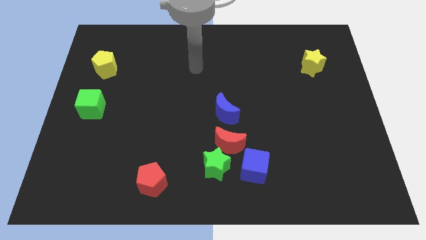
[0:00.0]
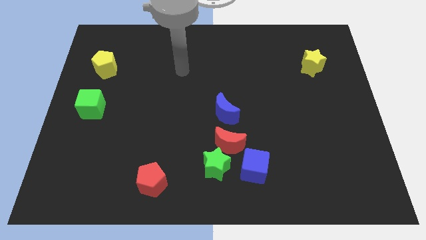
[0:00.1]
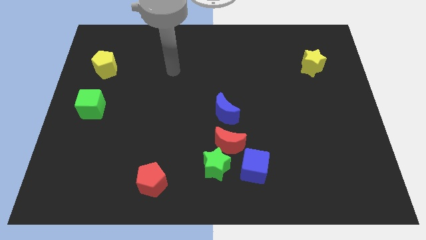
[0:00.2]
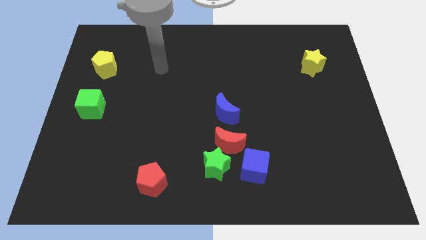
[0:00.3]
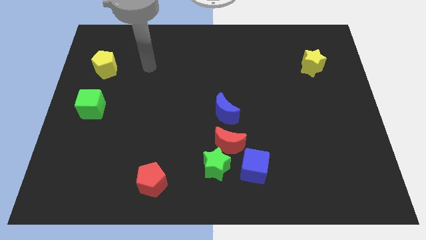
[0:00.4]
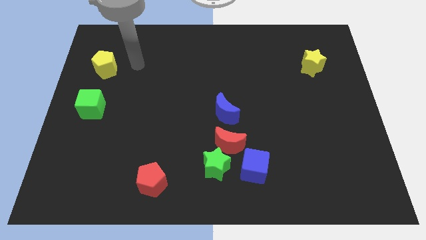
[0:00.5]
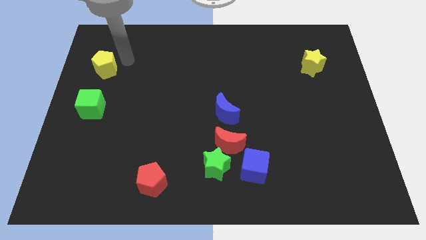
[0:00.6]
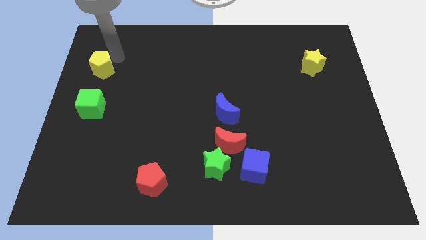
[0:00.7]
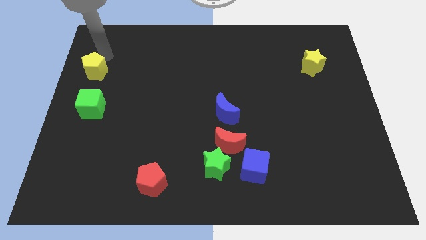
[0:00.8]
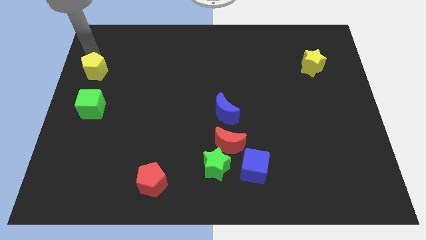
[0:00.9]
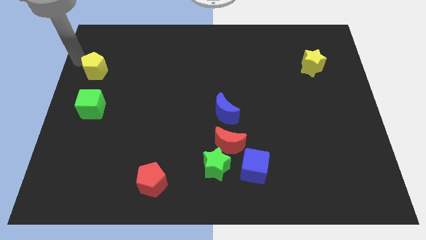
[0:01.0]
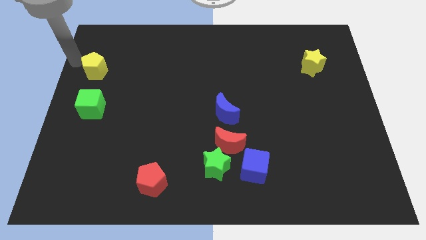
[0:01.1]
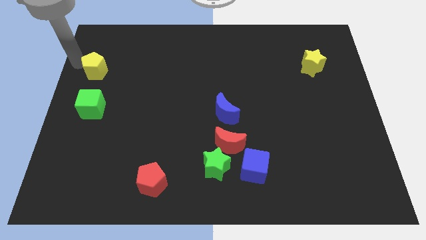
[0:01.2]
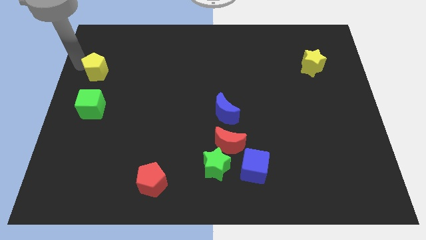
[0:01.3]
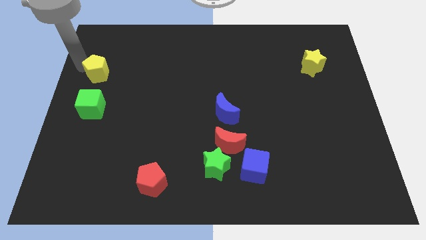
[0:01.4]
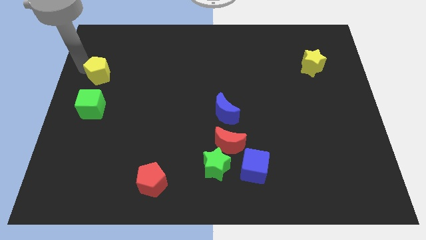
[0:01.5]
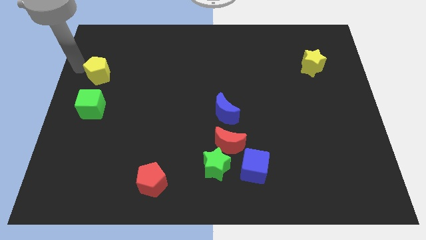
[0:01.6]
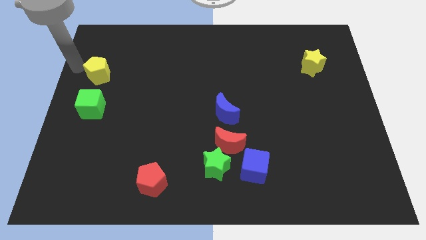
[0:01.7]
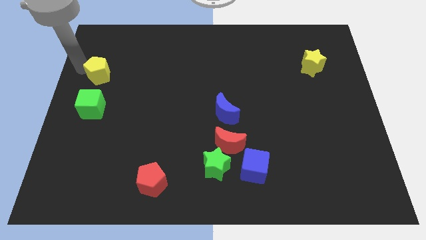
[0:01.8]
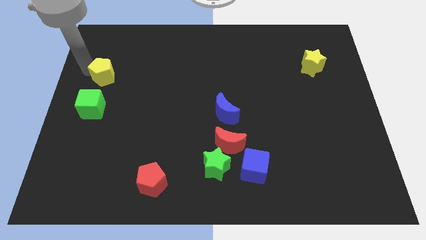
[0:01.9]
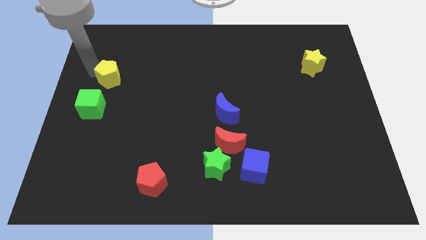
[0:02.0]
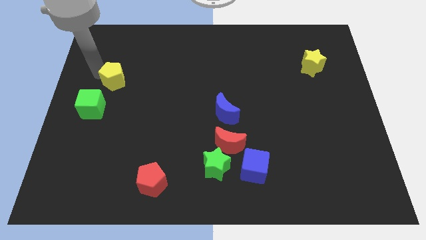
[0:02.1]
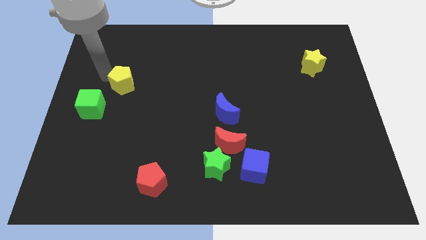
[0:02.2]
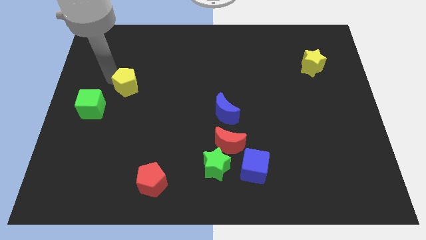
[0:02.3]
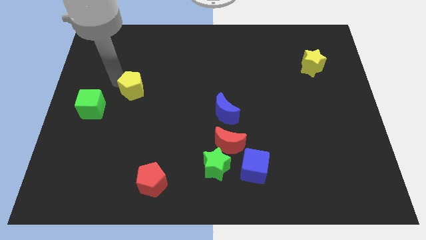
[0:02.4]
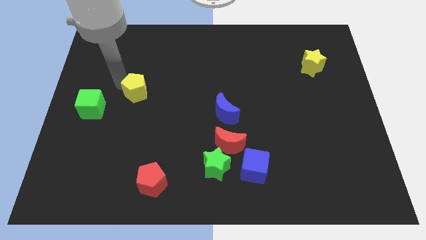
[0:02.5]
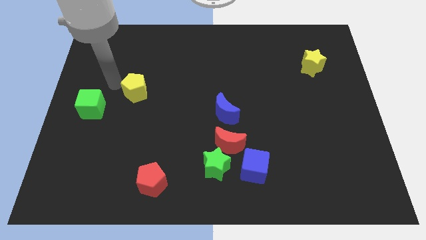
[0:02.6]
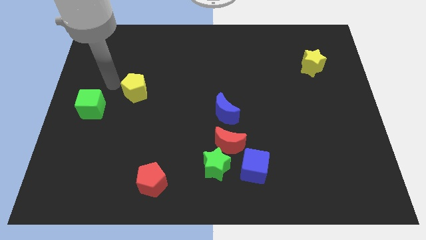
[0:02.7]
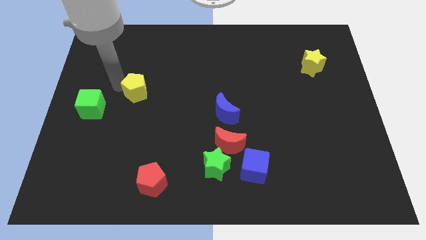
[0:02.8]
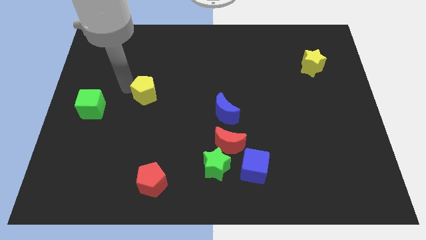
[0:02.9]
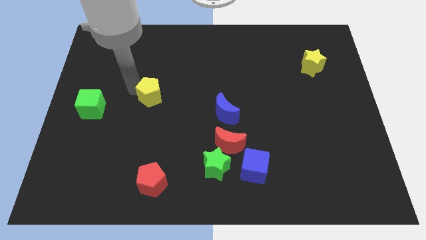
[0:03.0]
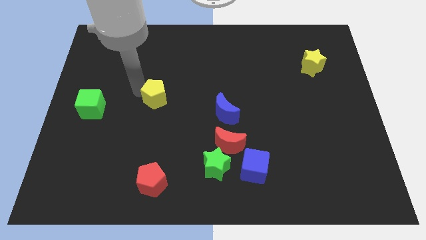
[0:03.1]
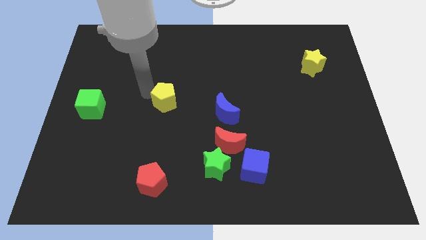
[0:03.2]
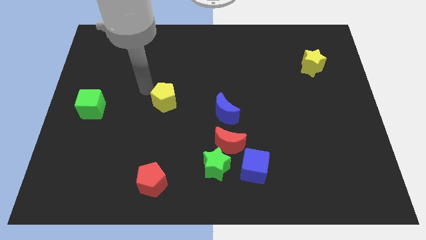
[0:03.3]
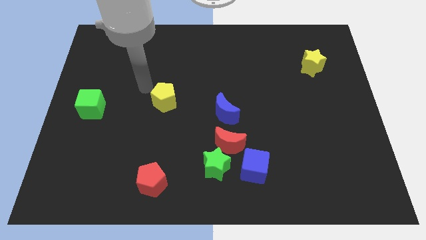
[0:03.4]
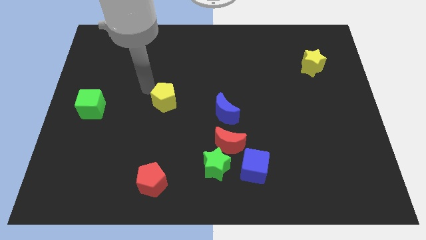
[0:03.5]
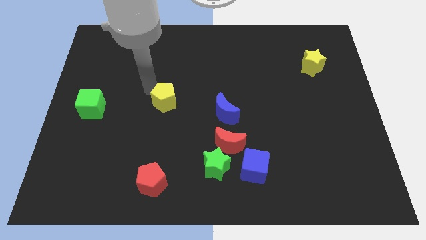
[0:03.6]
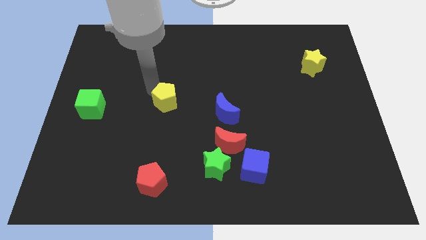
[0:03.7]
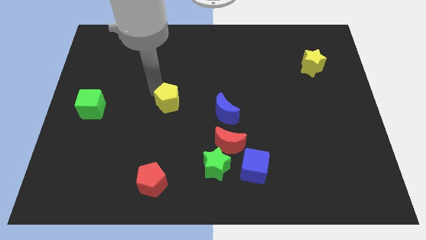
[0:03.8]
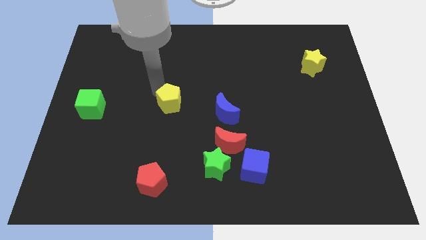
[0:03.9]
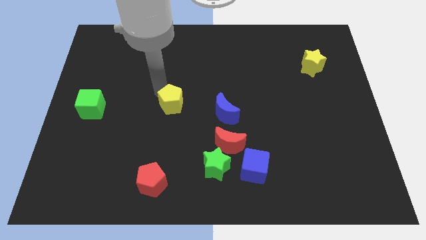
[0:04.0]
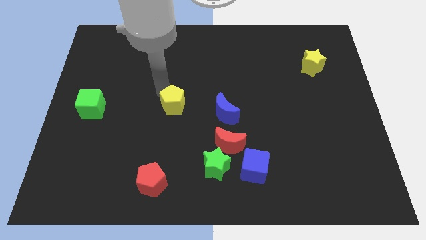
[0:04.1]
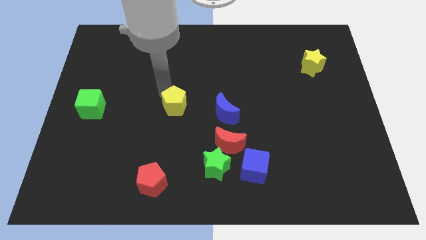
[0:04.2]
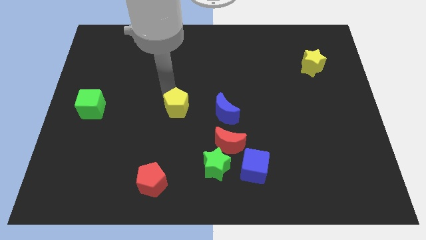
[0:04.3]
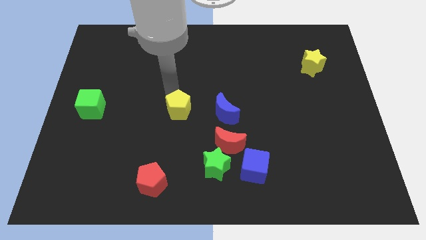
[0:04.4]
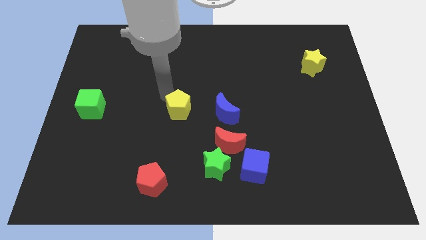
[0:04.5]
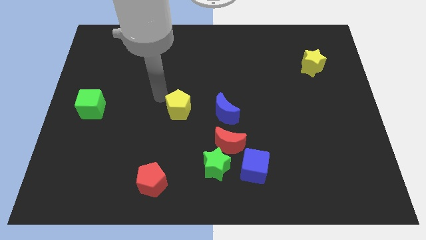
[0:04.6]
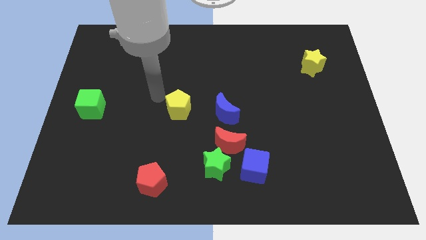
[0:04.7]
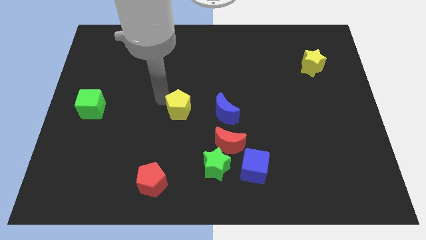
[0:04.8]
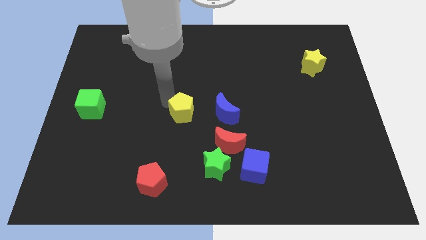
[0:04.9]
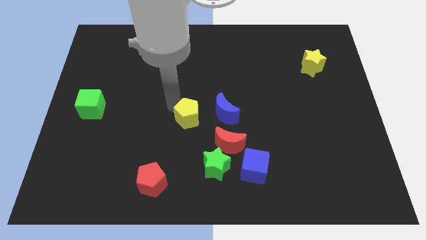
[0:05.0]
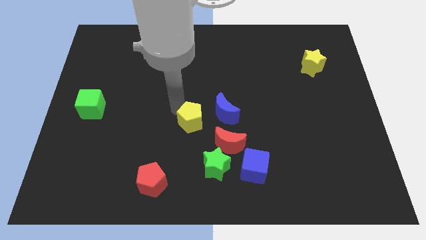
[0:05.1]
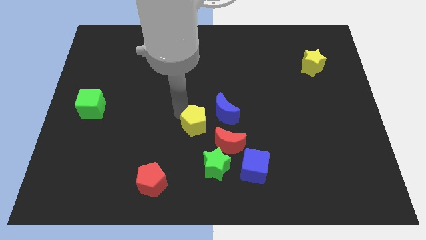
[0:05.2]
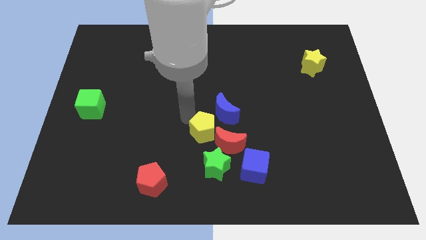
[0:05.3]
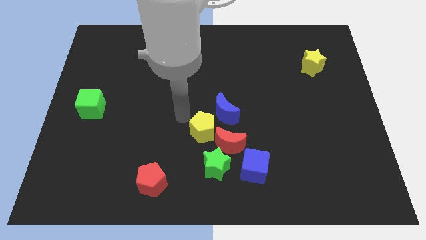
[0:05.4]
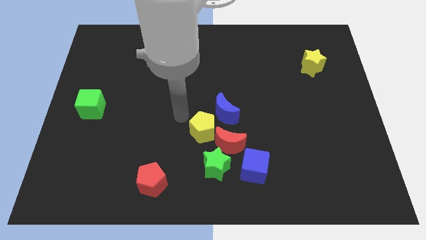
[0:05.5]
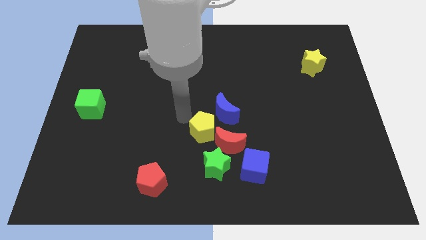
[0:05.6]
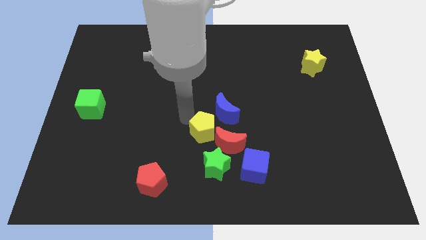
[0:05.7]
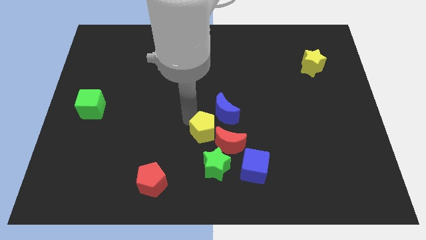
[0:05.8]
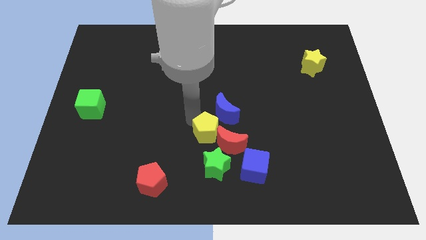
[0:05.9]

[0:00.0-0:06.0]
slide the yellow pentagon to the red moon

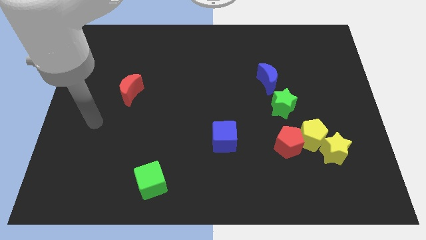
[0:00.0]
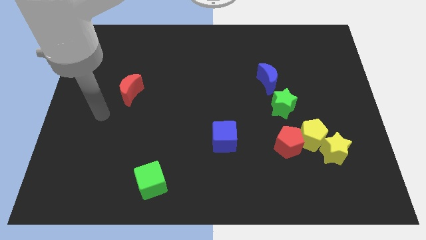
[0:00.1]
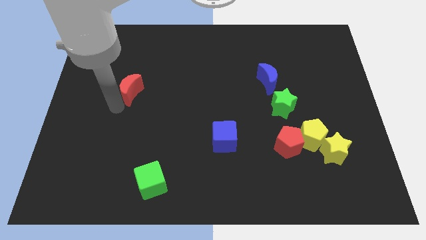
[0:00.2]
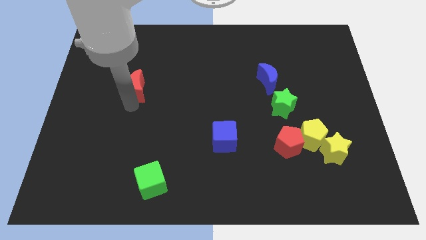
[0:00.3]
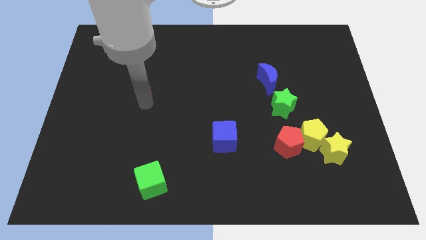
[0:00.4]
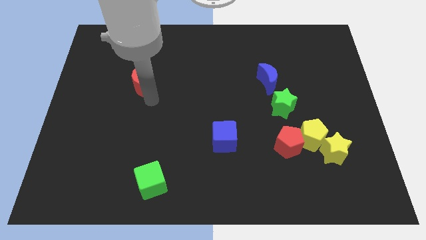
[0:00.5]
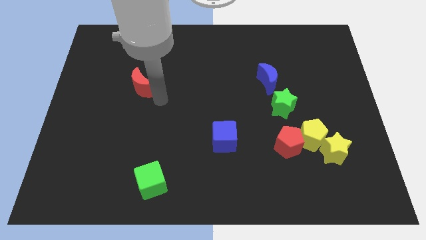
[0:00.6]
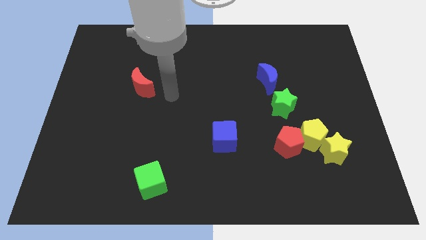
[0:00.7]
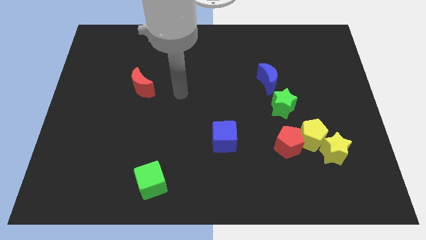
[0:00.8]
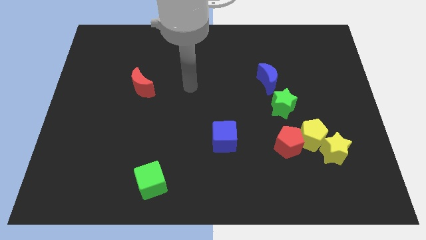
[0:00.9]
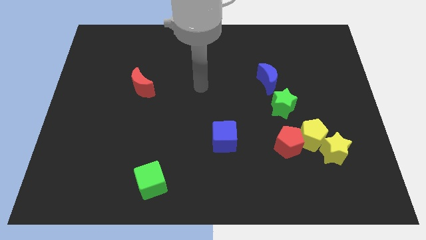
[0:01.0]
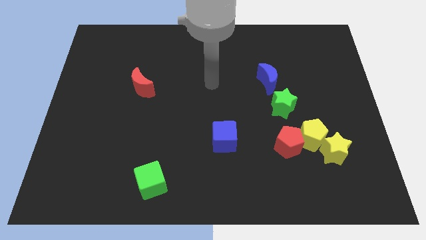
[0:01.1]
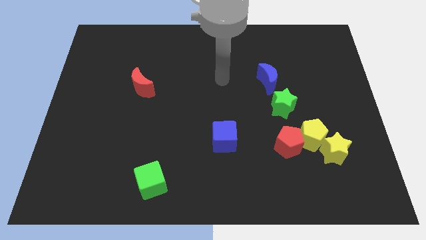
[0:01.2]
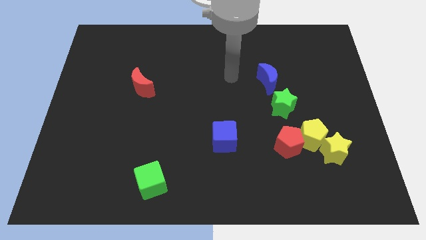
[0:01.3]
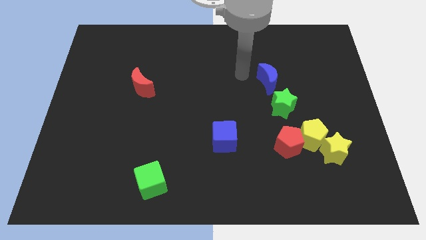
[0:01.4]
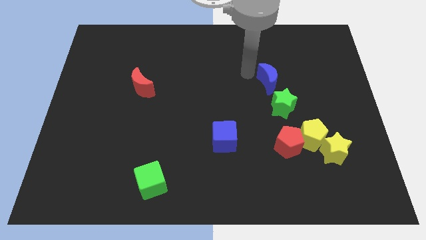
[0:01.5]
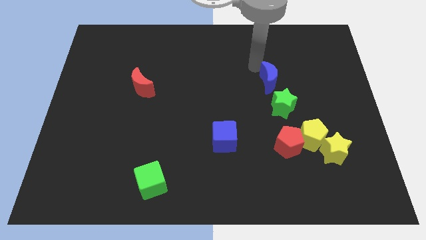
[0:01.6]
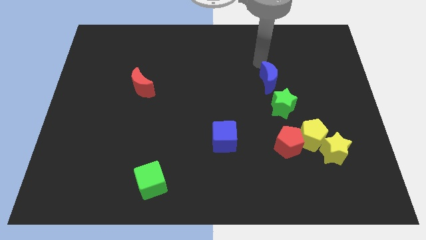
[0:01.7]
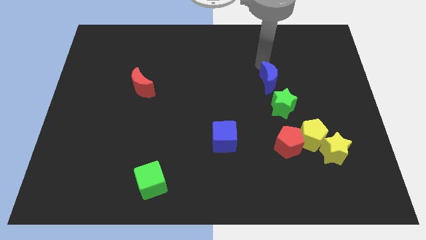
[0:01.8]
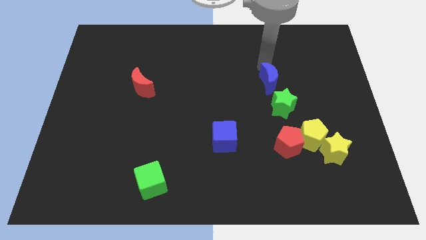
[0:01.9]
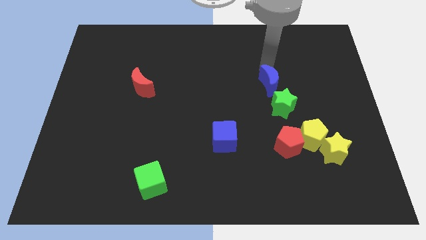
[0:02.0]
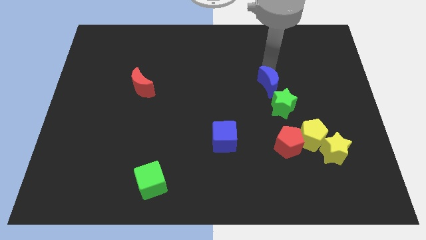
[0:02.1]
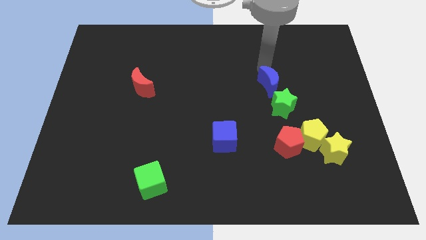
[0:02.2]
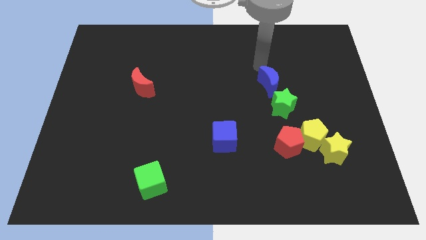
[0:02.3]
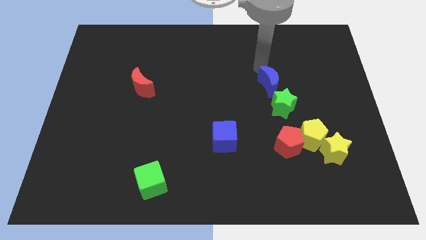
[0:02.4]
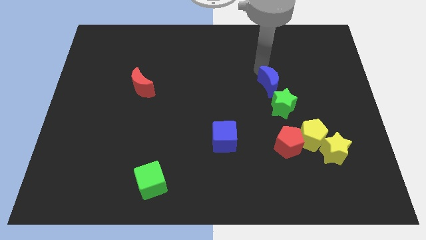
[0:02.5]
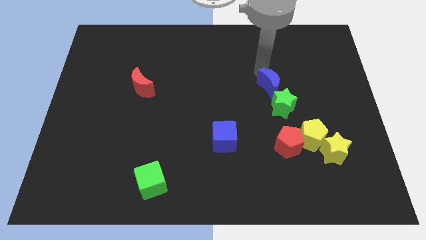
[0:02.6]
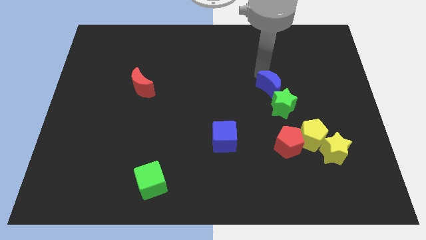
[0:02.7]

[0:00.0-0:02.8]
put the blue moon close to the green star
